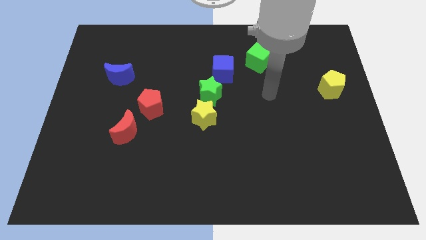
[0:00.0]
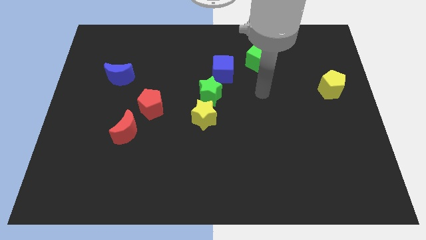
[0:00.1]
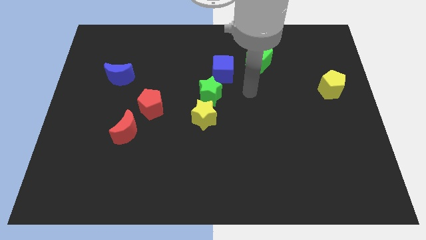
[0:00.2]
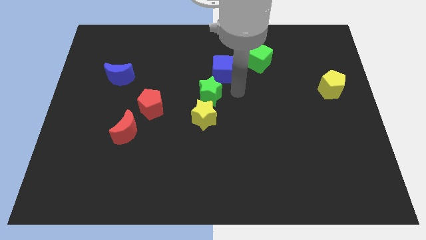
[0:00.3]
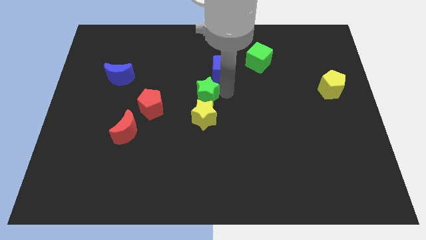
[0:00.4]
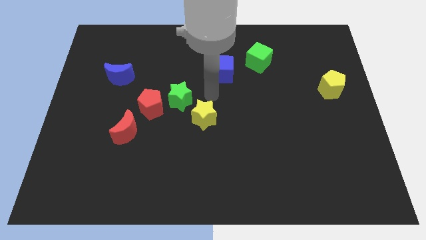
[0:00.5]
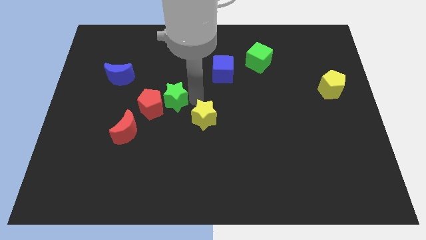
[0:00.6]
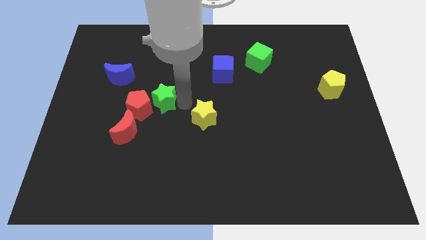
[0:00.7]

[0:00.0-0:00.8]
separate the yellow star from the green star

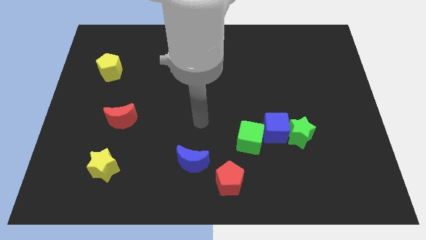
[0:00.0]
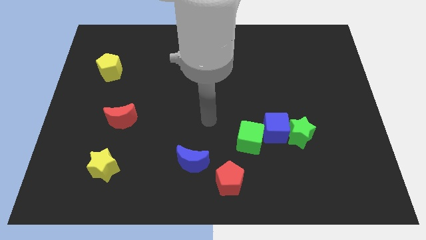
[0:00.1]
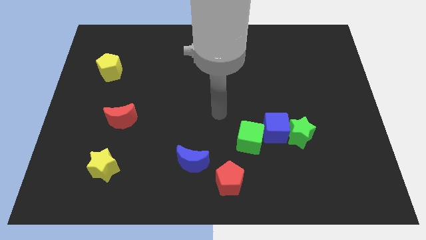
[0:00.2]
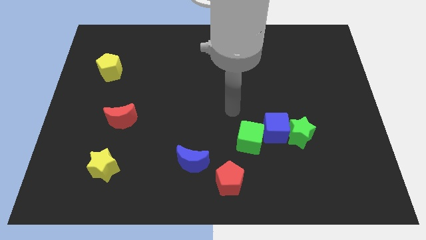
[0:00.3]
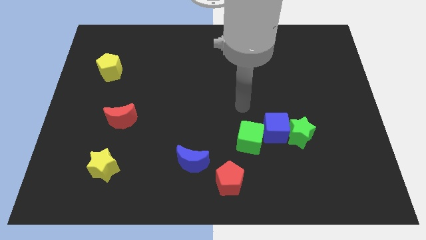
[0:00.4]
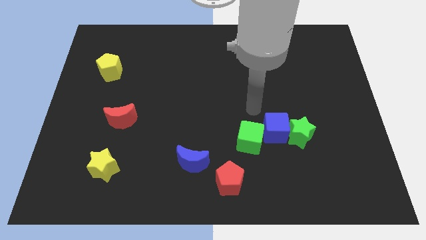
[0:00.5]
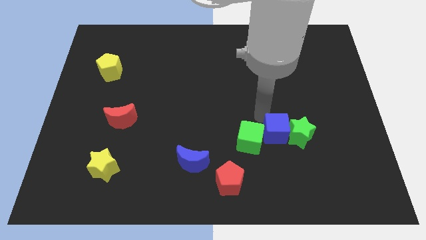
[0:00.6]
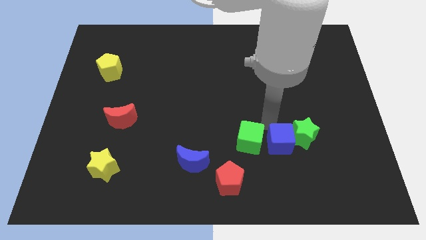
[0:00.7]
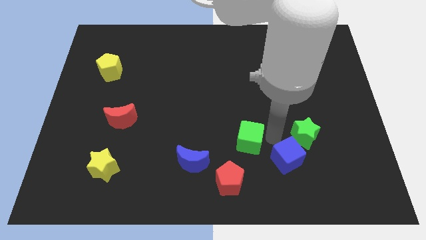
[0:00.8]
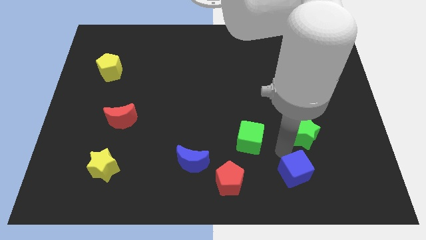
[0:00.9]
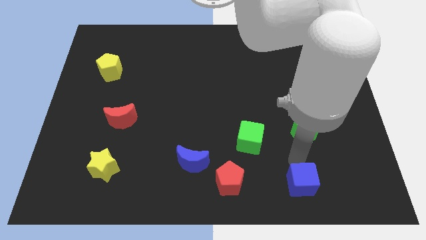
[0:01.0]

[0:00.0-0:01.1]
move the green star away from the blue cube

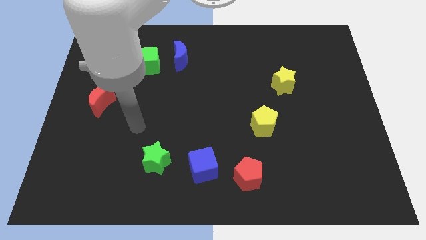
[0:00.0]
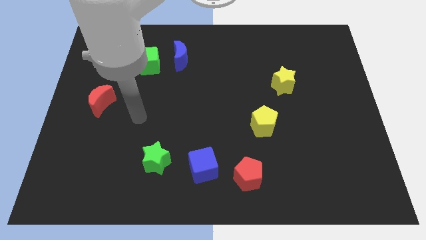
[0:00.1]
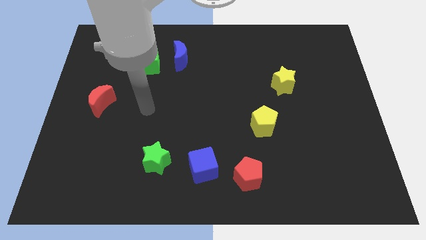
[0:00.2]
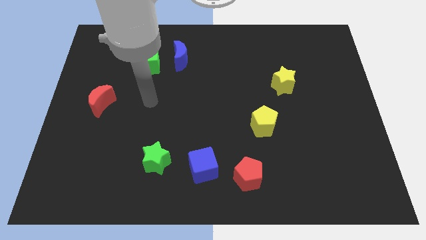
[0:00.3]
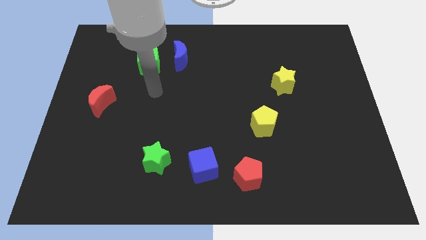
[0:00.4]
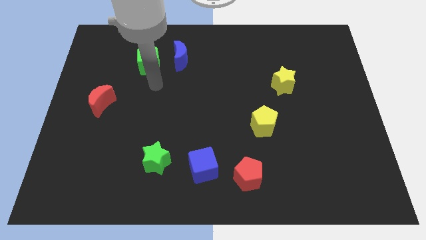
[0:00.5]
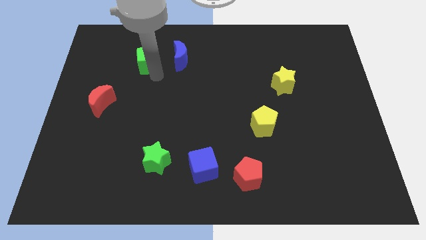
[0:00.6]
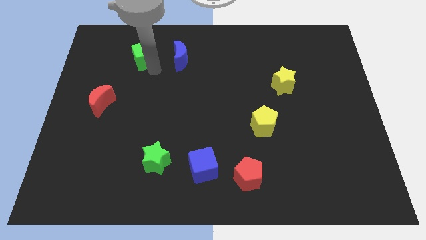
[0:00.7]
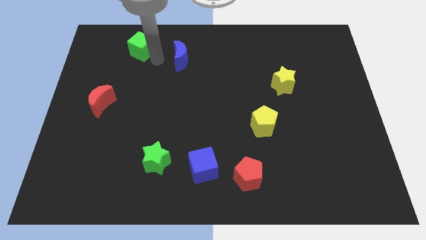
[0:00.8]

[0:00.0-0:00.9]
separate the blue moon from the green cube

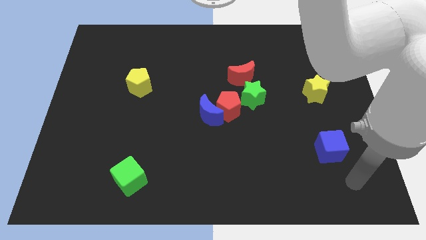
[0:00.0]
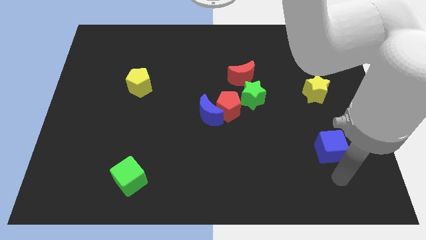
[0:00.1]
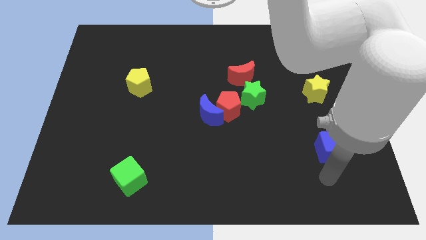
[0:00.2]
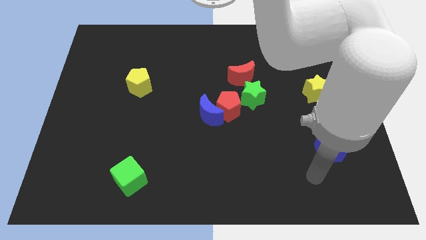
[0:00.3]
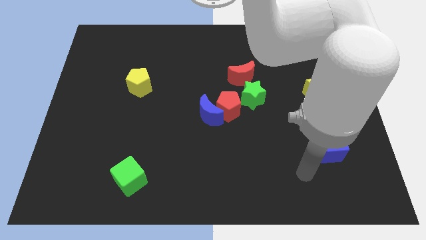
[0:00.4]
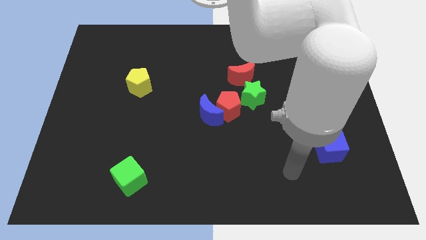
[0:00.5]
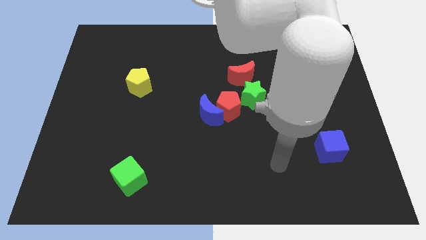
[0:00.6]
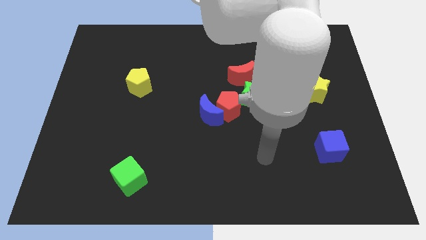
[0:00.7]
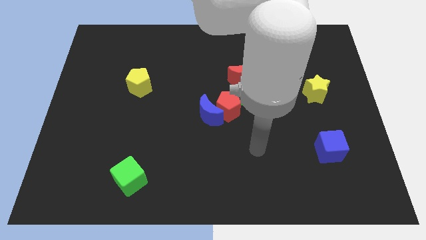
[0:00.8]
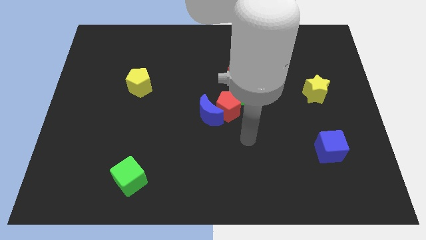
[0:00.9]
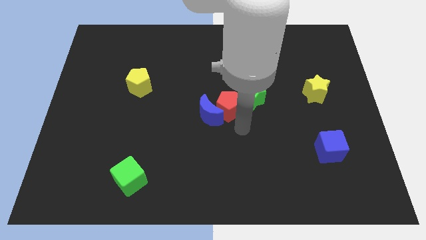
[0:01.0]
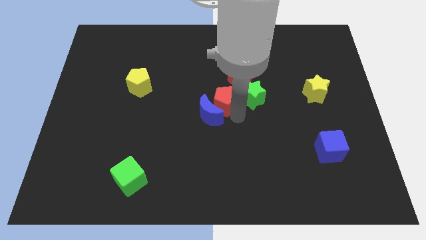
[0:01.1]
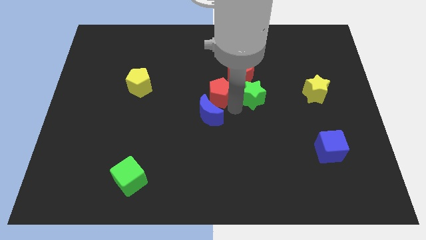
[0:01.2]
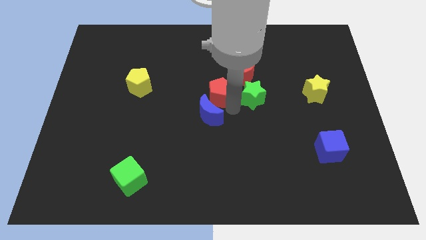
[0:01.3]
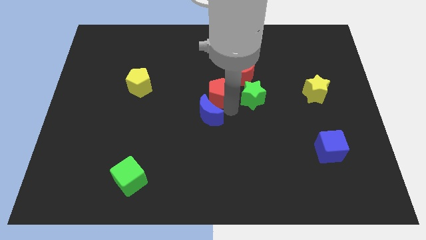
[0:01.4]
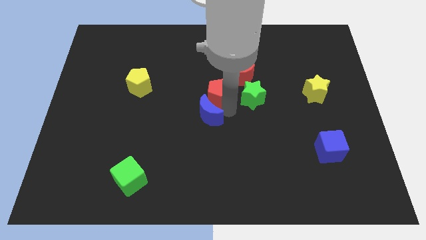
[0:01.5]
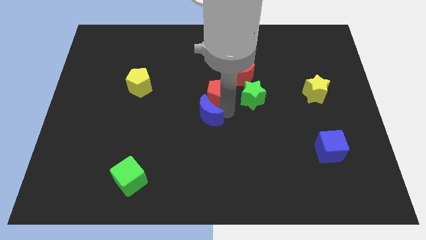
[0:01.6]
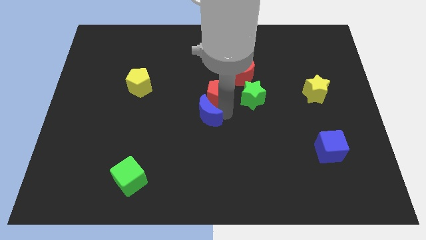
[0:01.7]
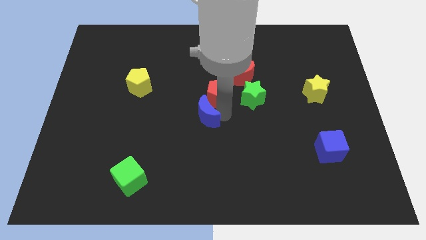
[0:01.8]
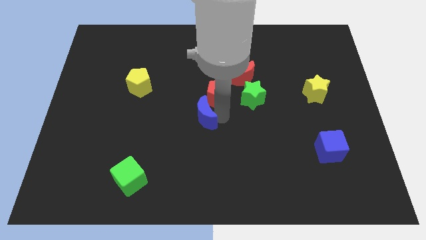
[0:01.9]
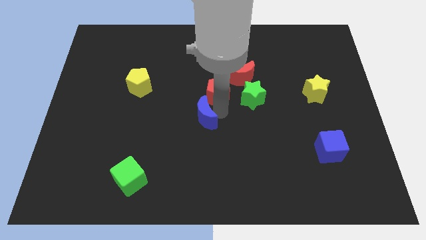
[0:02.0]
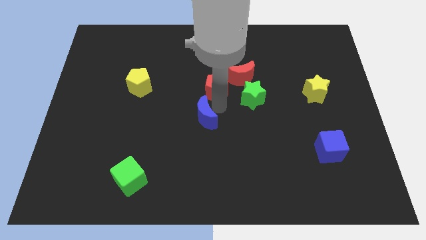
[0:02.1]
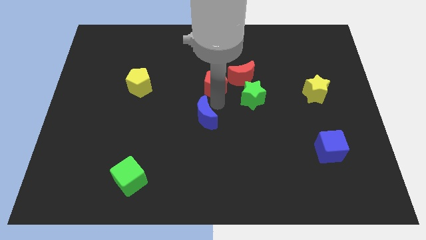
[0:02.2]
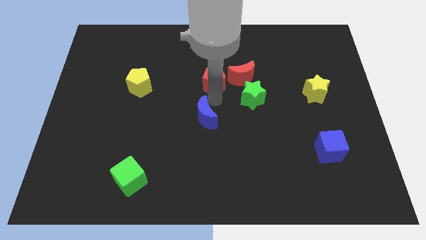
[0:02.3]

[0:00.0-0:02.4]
separate the blue moon from the red pentagon

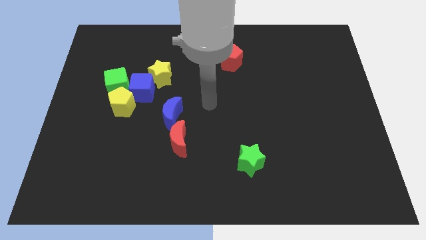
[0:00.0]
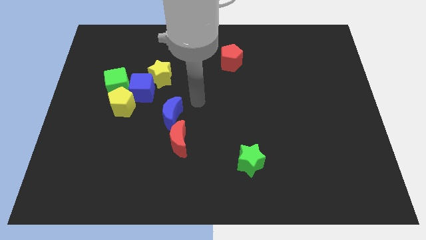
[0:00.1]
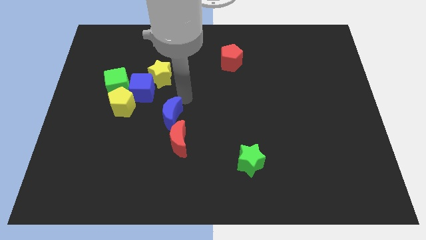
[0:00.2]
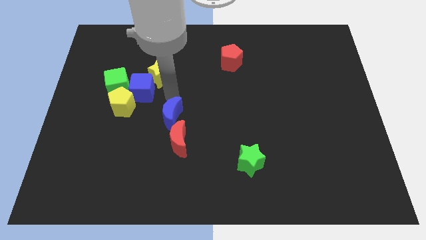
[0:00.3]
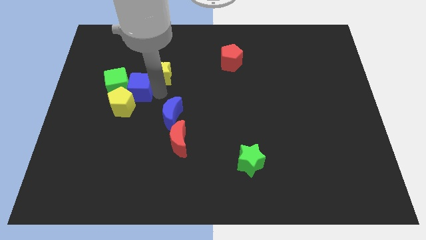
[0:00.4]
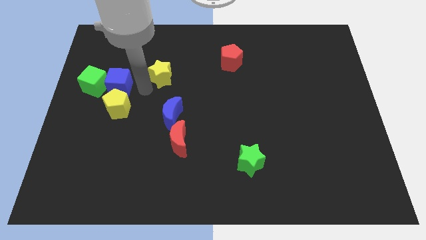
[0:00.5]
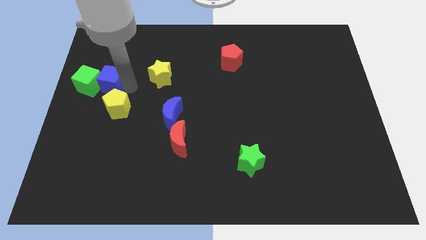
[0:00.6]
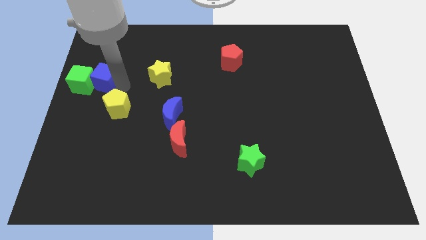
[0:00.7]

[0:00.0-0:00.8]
separate the yellow pentagon from the blue cube and green cube

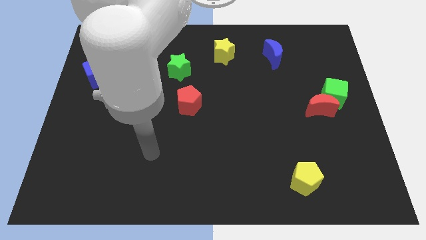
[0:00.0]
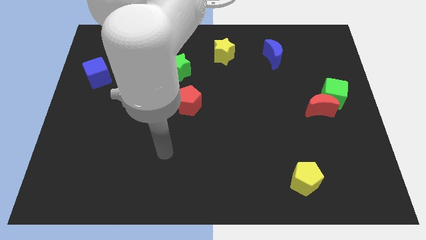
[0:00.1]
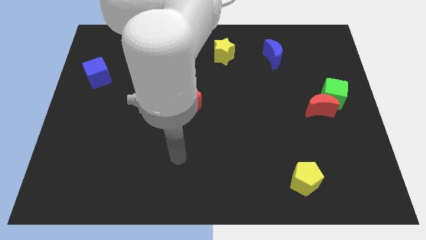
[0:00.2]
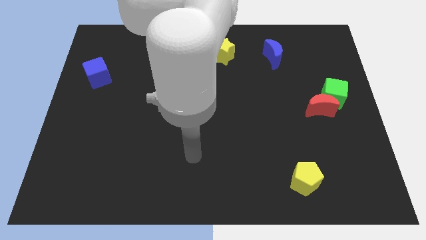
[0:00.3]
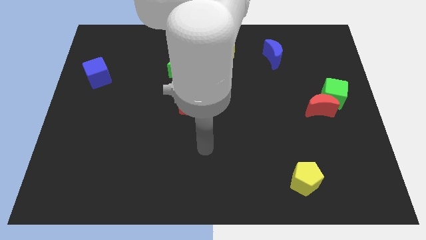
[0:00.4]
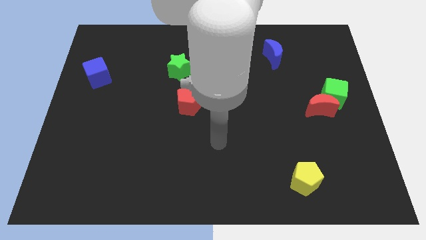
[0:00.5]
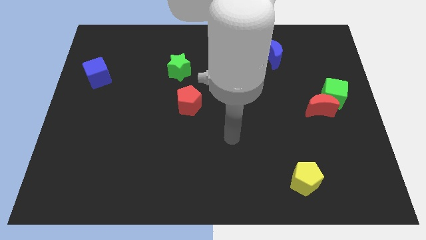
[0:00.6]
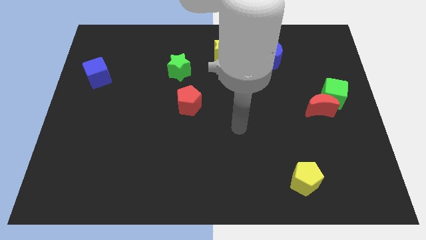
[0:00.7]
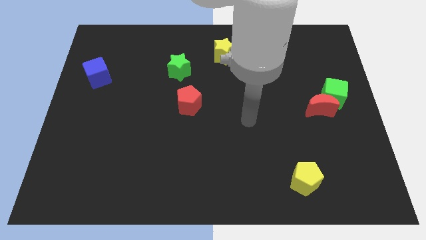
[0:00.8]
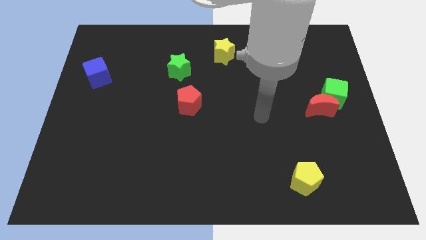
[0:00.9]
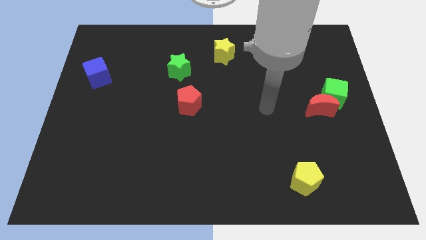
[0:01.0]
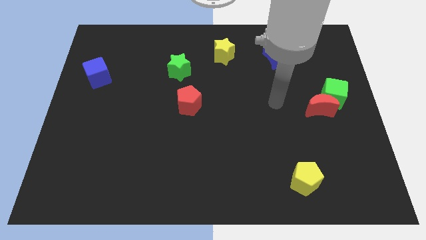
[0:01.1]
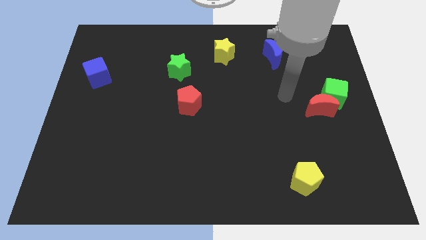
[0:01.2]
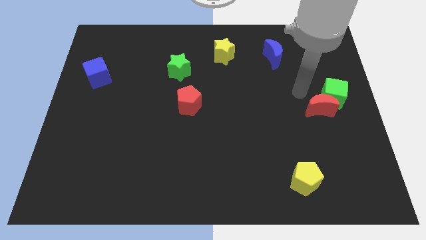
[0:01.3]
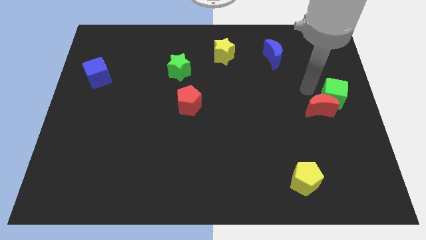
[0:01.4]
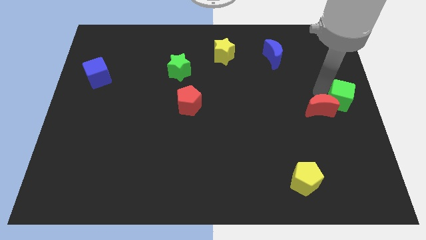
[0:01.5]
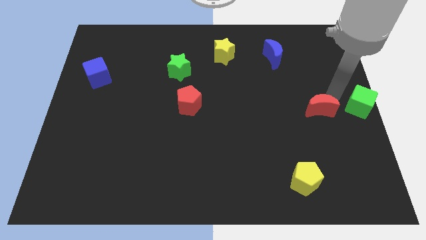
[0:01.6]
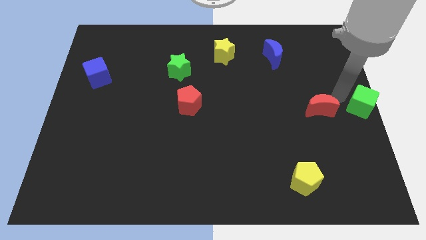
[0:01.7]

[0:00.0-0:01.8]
move the red moon away from the green cube

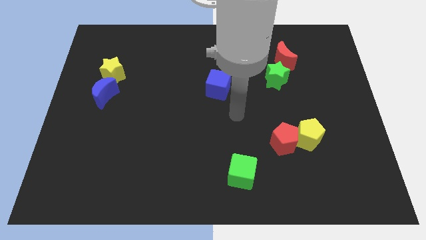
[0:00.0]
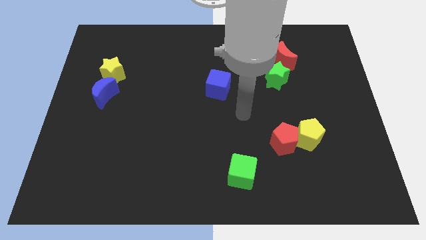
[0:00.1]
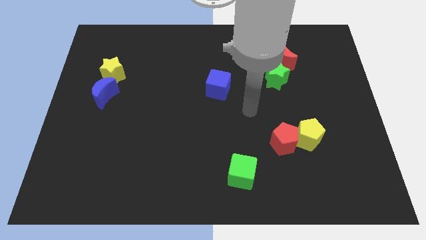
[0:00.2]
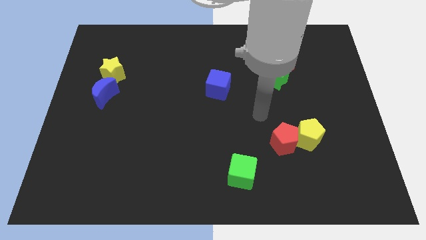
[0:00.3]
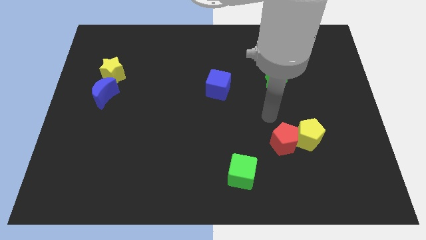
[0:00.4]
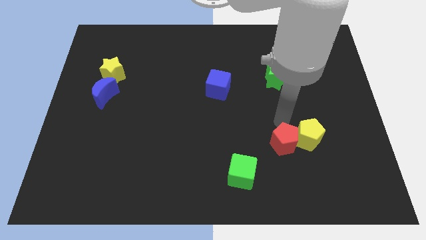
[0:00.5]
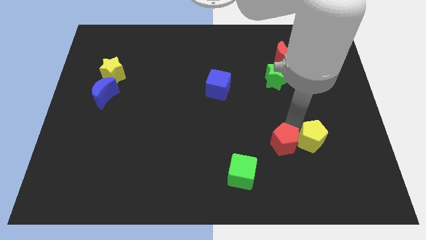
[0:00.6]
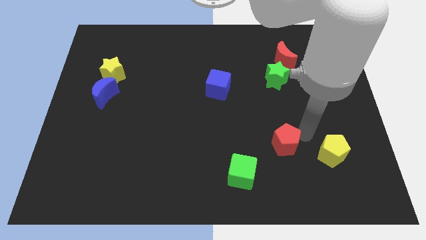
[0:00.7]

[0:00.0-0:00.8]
pull the red pentagon apart from the yellow pentagon

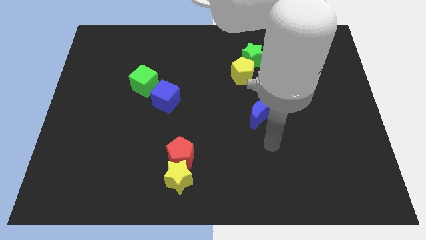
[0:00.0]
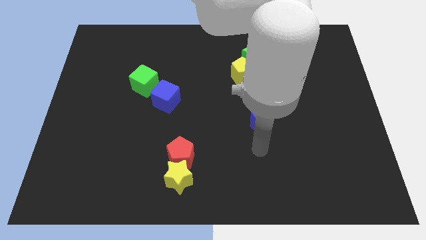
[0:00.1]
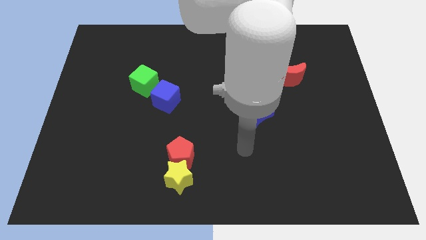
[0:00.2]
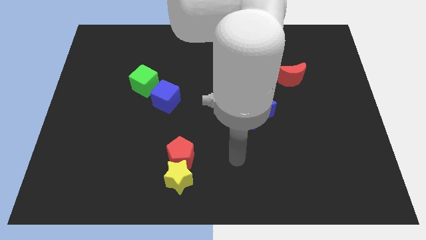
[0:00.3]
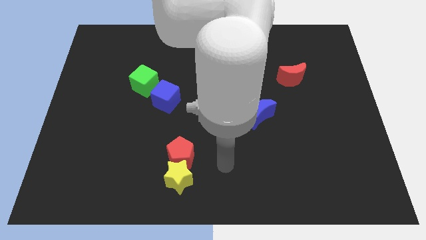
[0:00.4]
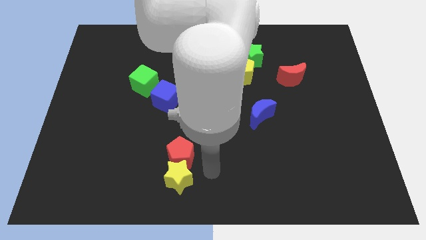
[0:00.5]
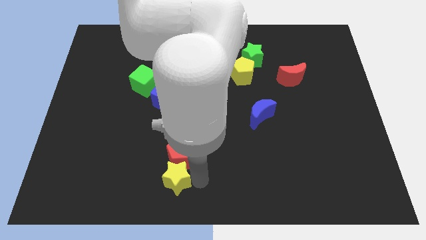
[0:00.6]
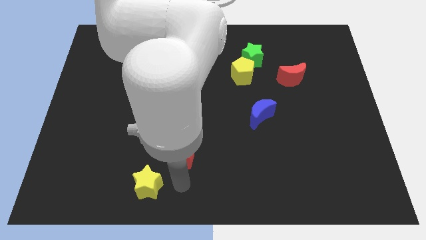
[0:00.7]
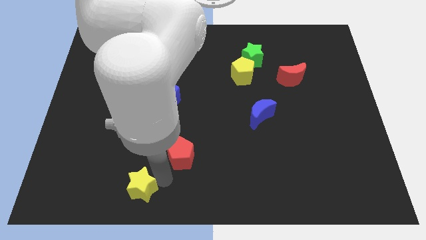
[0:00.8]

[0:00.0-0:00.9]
separate the red pentagon from the yellow star
